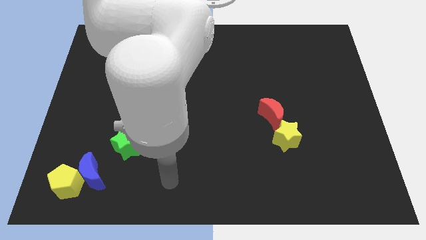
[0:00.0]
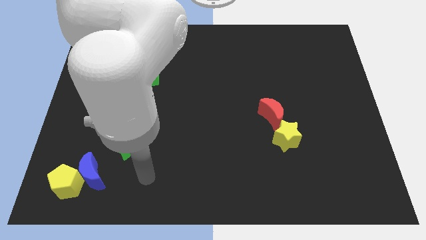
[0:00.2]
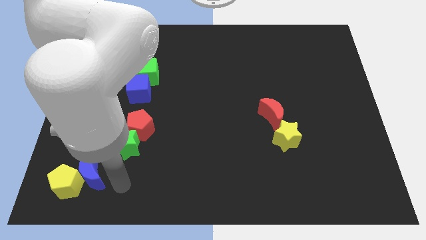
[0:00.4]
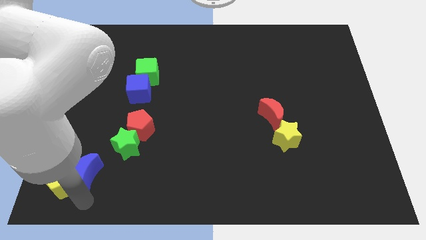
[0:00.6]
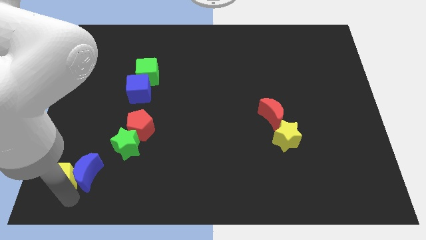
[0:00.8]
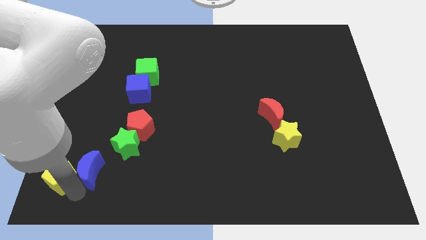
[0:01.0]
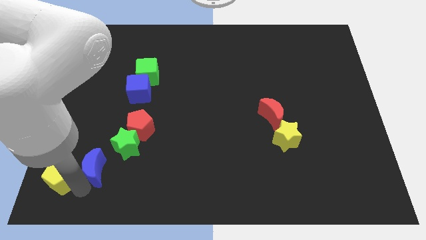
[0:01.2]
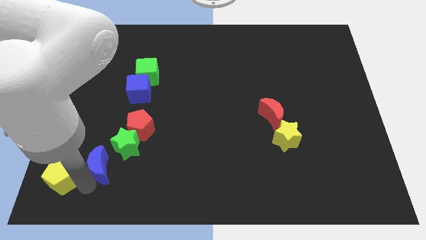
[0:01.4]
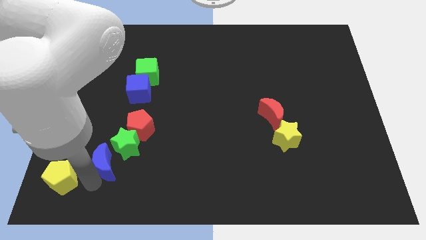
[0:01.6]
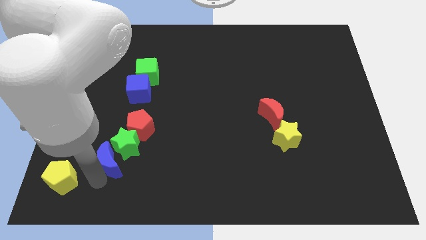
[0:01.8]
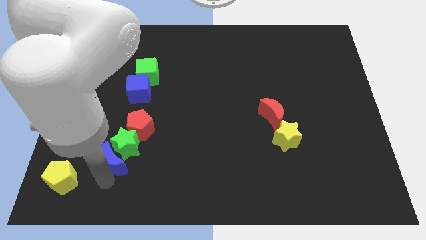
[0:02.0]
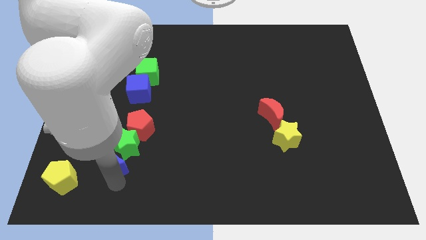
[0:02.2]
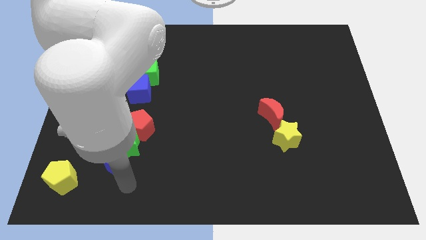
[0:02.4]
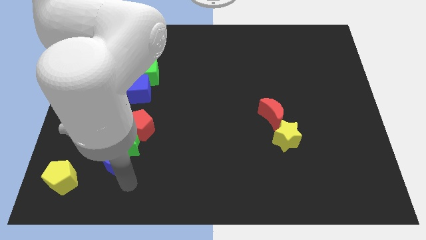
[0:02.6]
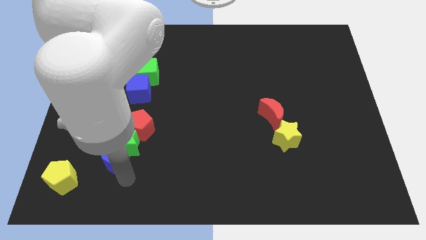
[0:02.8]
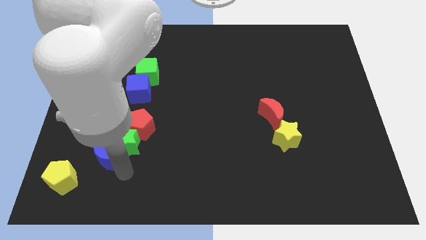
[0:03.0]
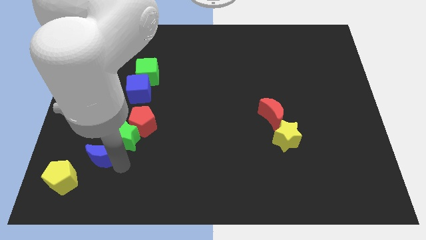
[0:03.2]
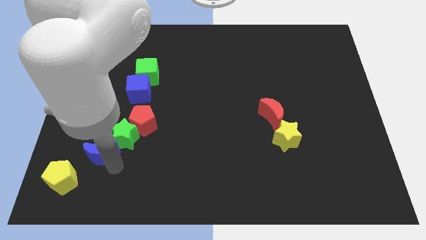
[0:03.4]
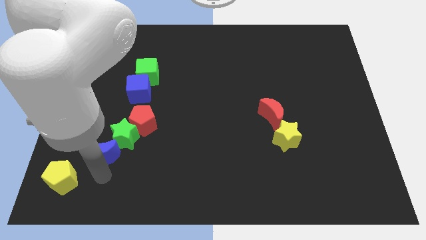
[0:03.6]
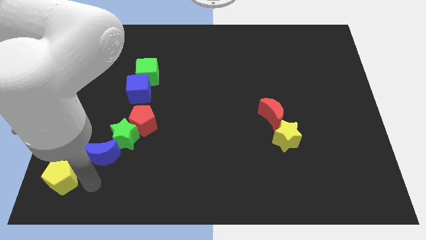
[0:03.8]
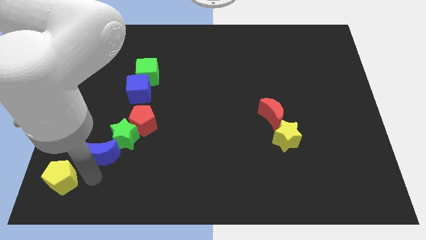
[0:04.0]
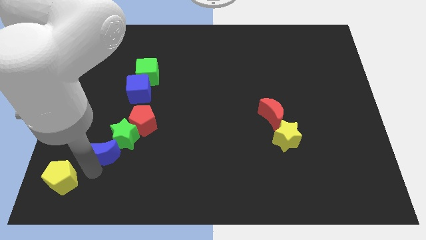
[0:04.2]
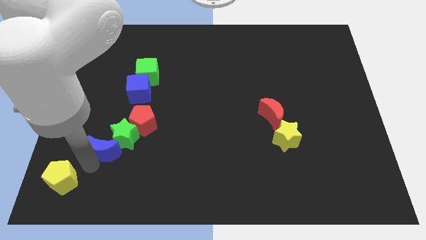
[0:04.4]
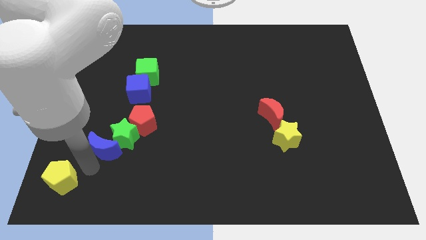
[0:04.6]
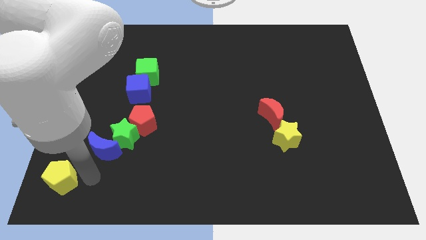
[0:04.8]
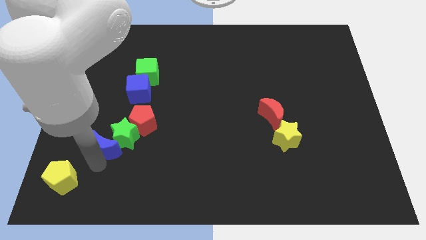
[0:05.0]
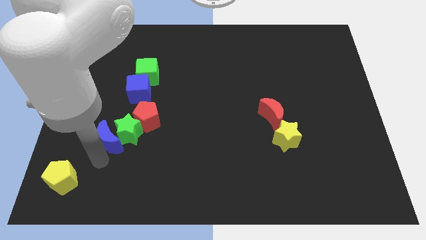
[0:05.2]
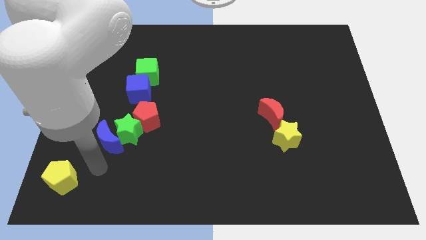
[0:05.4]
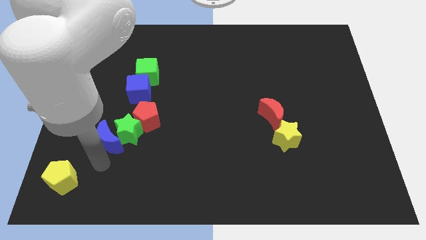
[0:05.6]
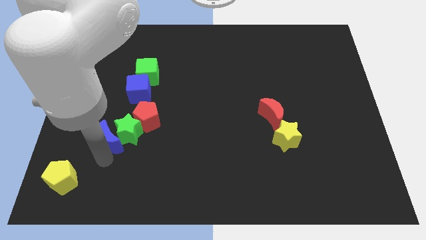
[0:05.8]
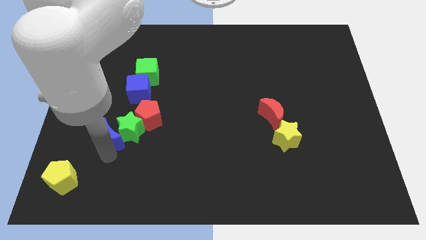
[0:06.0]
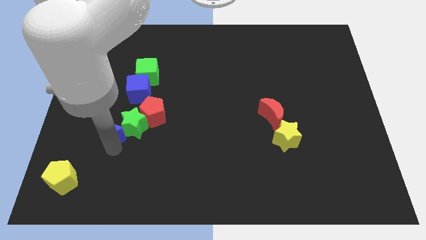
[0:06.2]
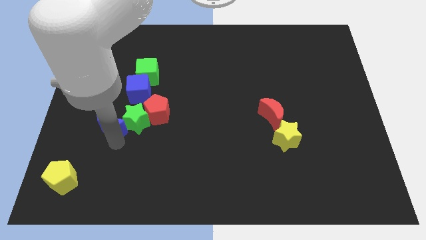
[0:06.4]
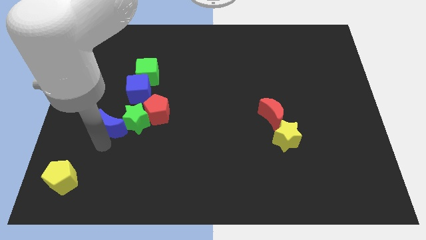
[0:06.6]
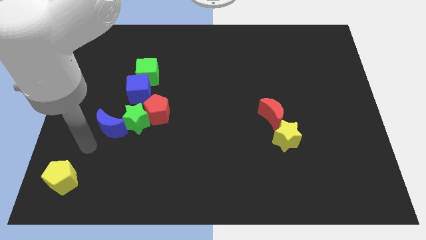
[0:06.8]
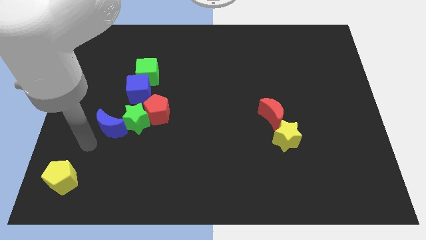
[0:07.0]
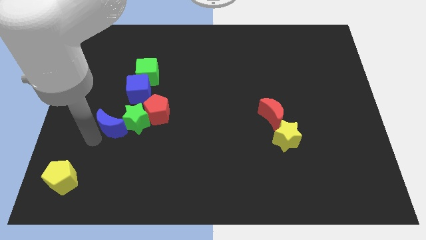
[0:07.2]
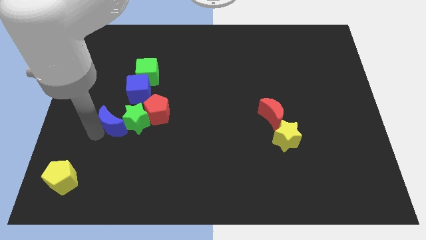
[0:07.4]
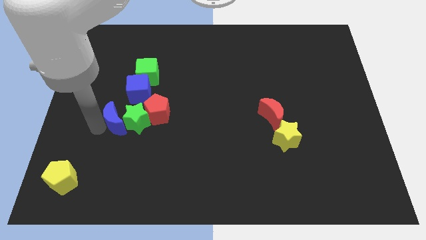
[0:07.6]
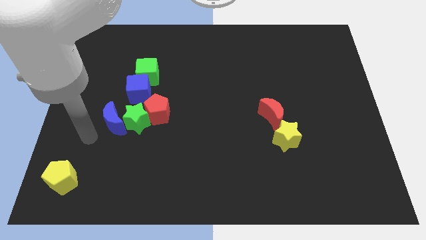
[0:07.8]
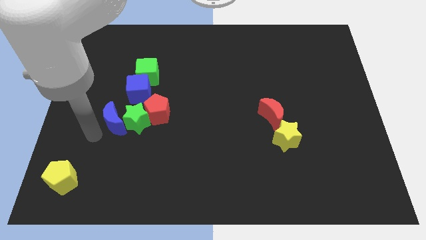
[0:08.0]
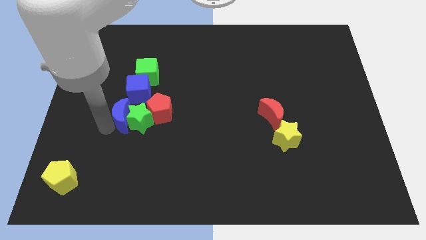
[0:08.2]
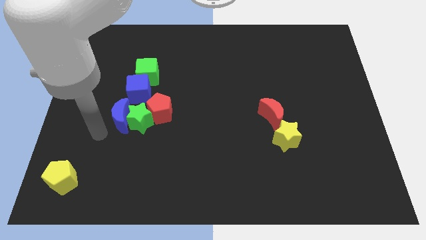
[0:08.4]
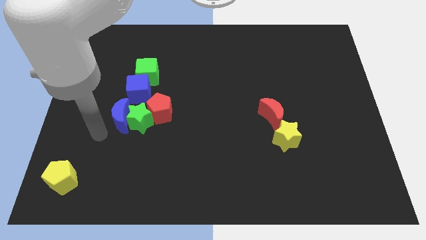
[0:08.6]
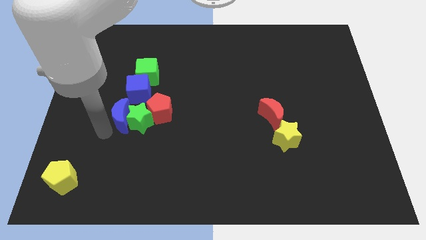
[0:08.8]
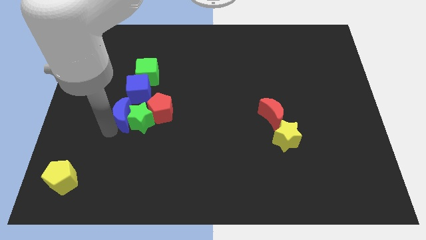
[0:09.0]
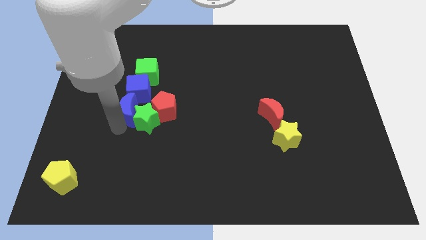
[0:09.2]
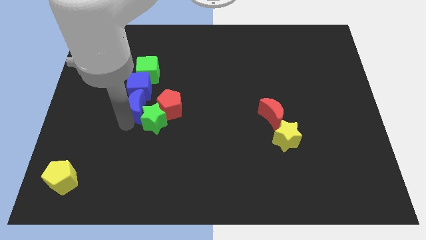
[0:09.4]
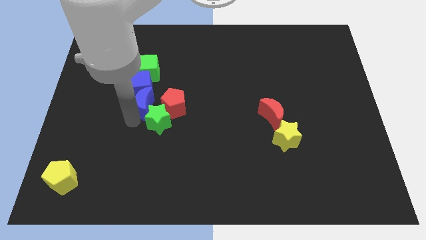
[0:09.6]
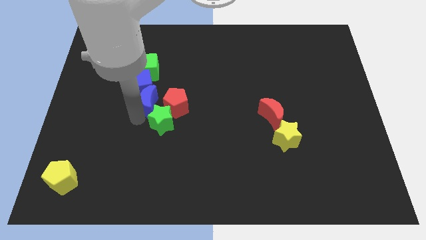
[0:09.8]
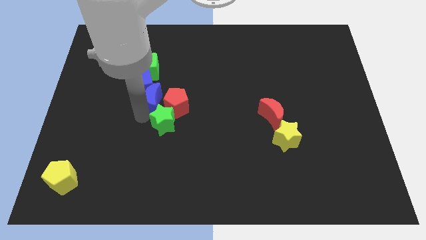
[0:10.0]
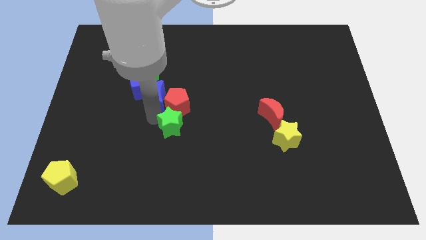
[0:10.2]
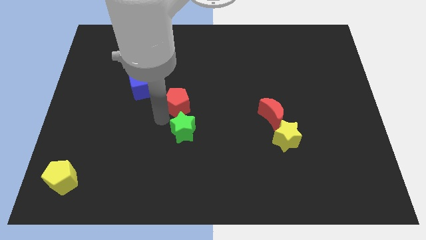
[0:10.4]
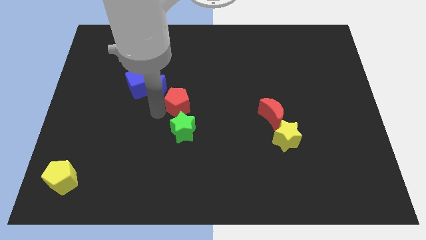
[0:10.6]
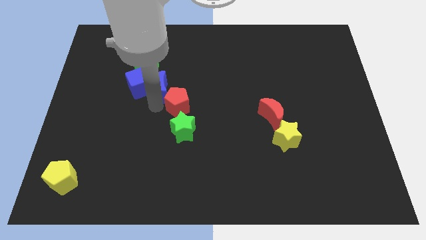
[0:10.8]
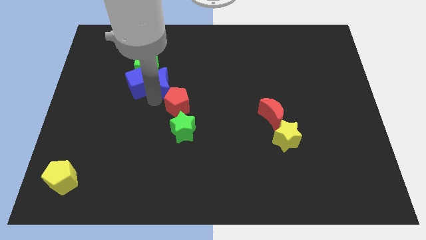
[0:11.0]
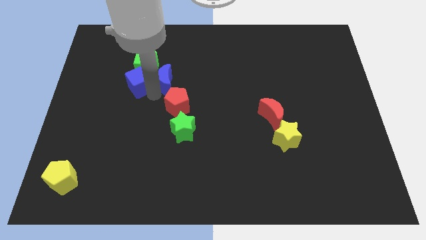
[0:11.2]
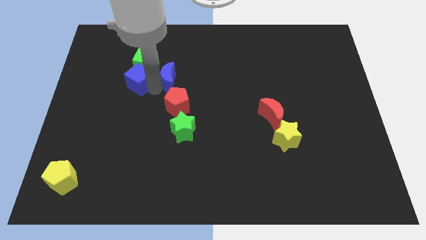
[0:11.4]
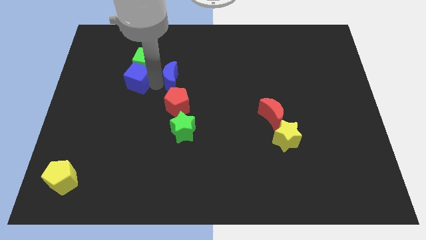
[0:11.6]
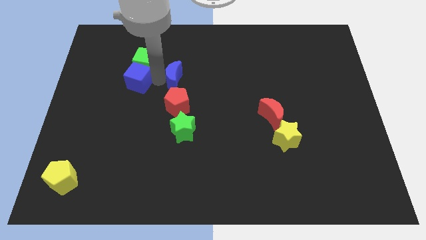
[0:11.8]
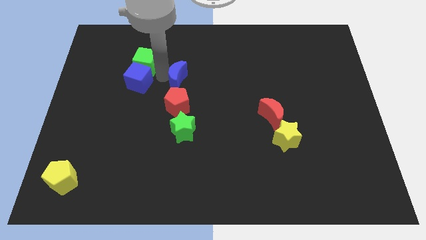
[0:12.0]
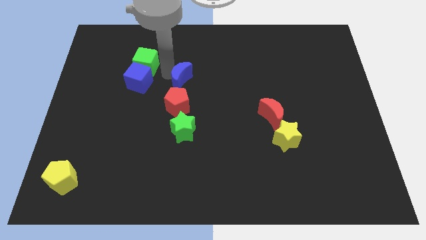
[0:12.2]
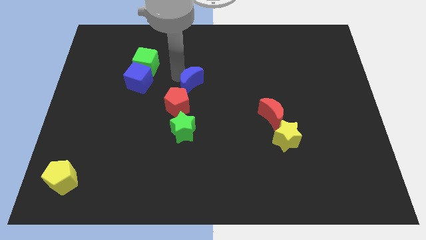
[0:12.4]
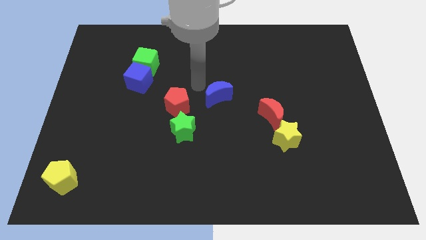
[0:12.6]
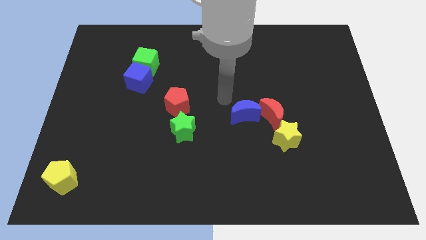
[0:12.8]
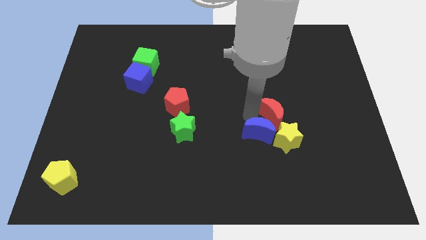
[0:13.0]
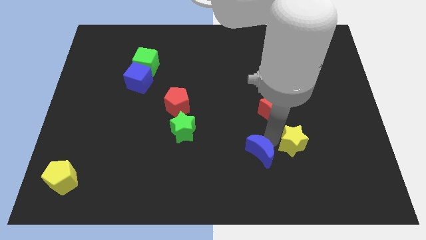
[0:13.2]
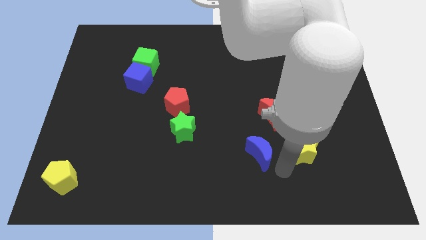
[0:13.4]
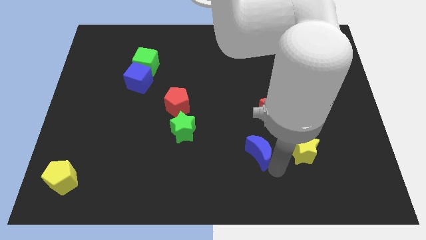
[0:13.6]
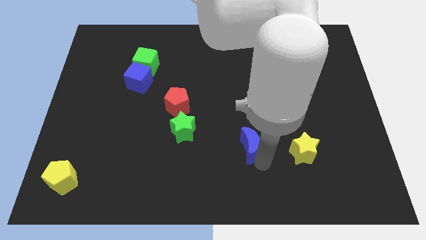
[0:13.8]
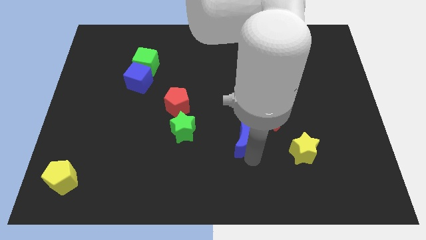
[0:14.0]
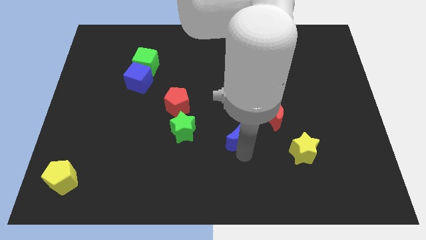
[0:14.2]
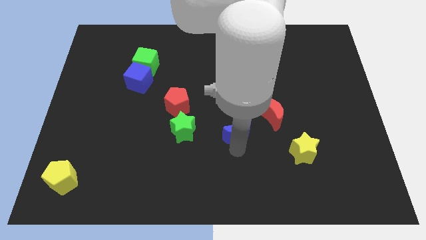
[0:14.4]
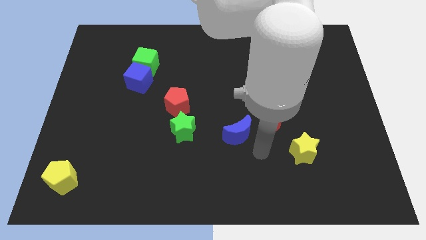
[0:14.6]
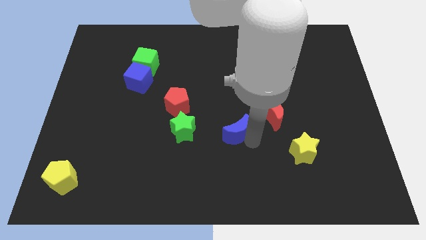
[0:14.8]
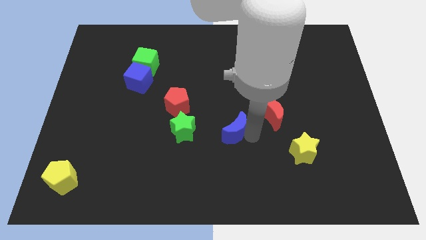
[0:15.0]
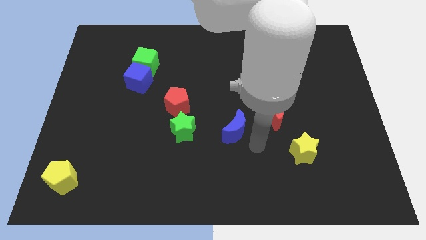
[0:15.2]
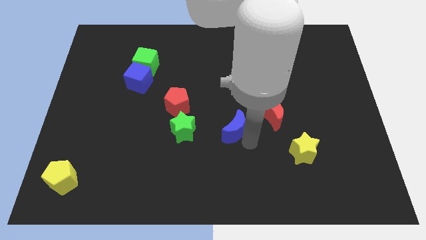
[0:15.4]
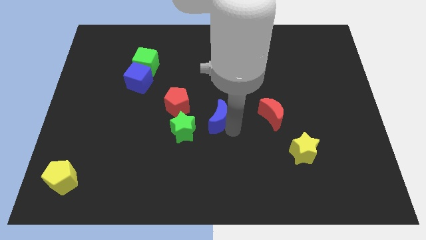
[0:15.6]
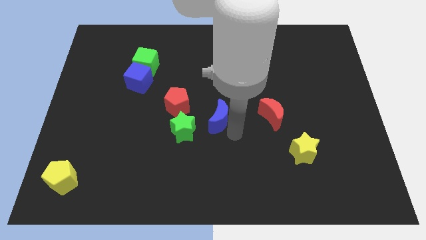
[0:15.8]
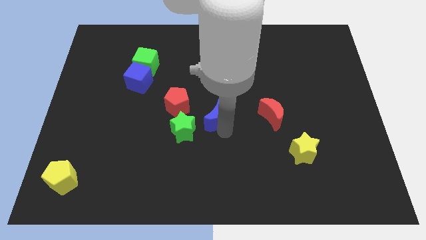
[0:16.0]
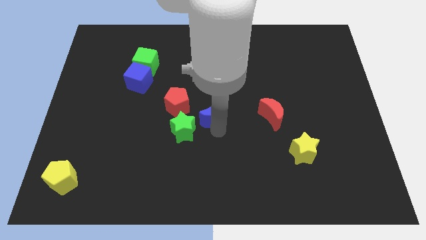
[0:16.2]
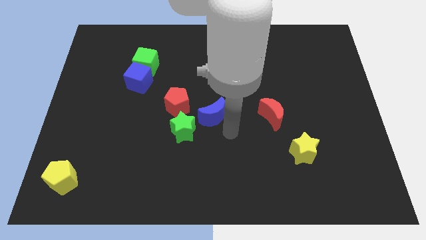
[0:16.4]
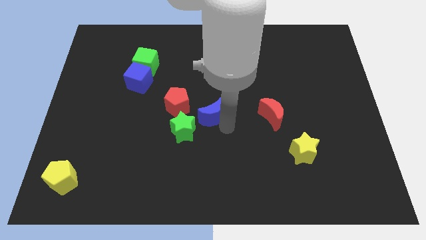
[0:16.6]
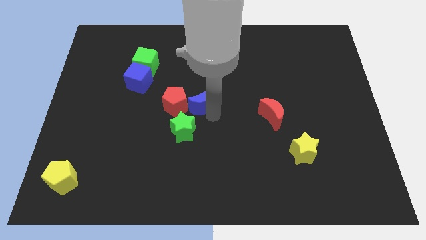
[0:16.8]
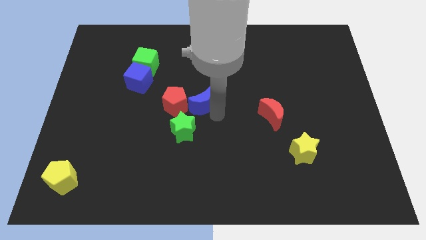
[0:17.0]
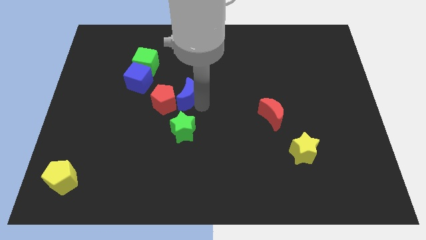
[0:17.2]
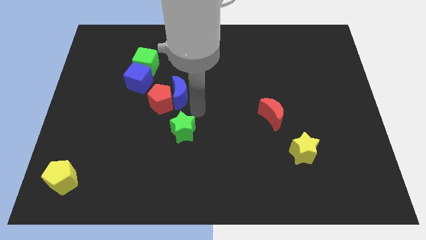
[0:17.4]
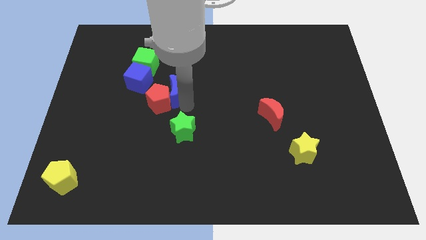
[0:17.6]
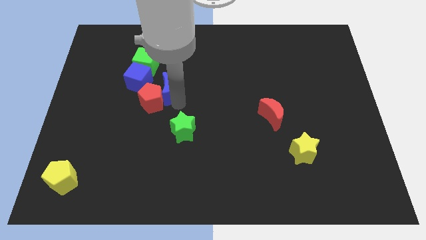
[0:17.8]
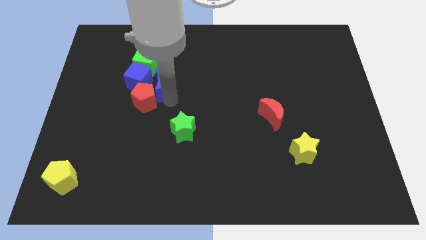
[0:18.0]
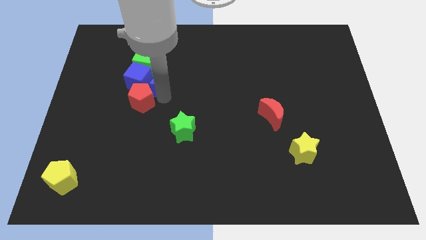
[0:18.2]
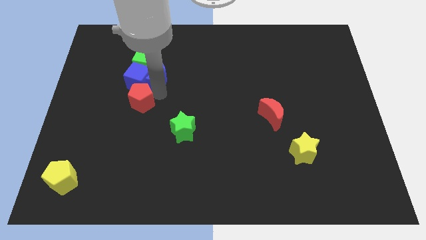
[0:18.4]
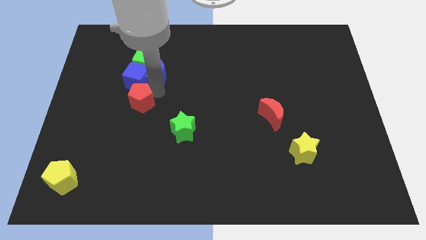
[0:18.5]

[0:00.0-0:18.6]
move the blue moon to the green cube
